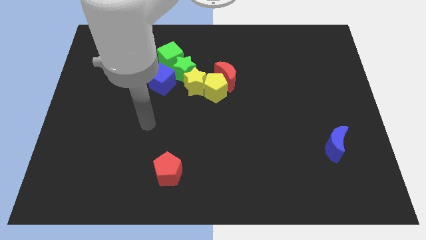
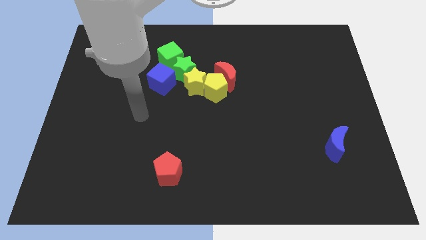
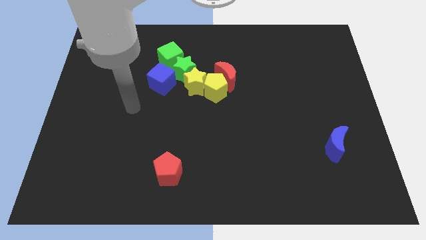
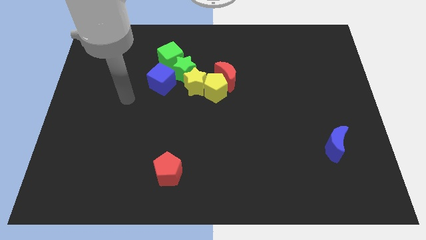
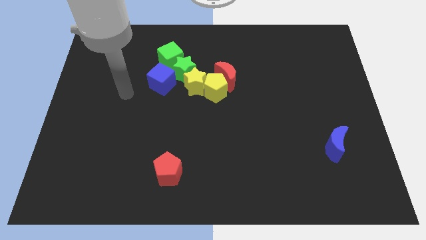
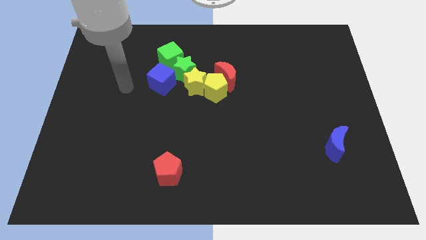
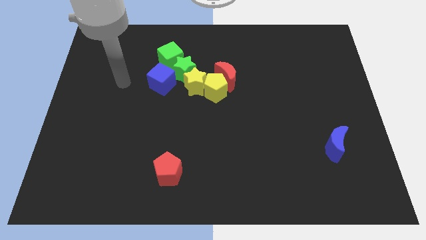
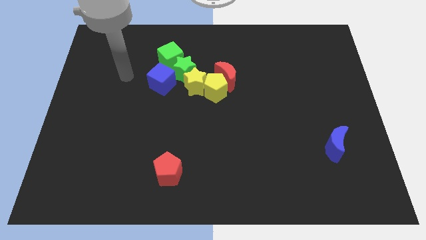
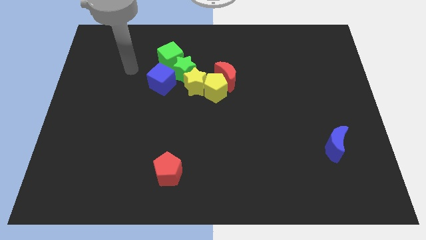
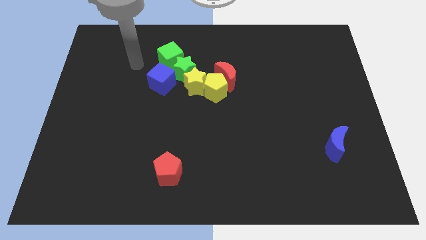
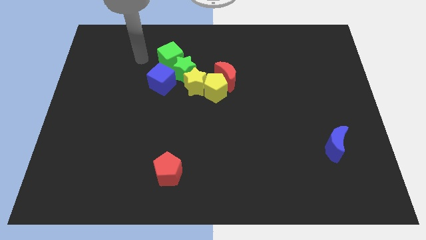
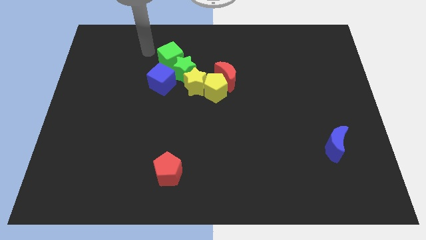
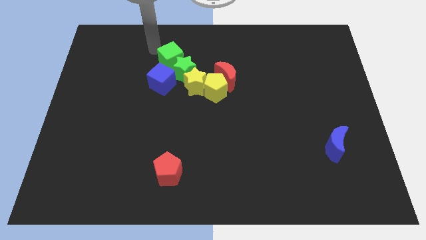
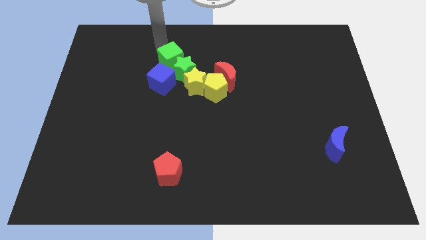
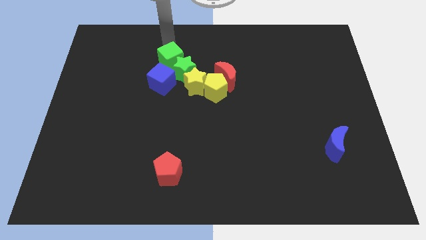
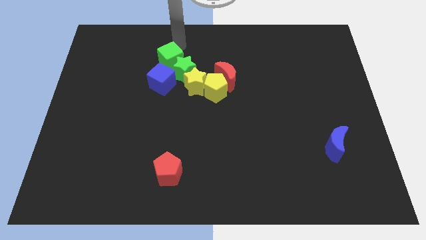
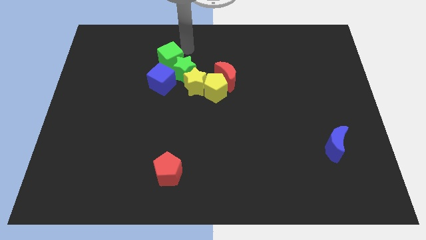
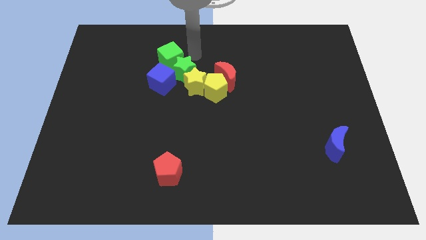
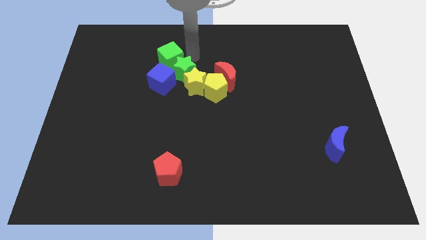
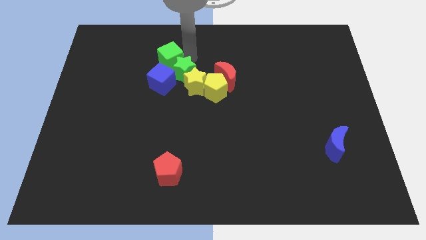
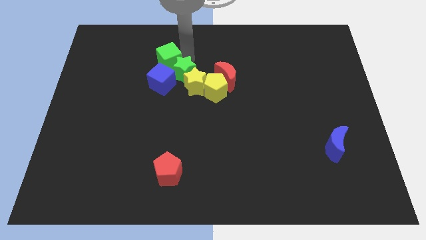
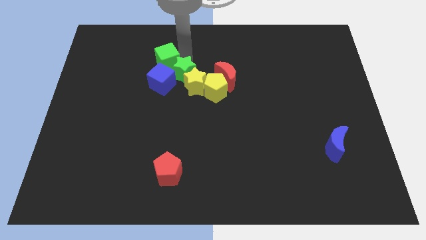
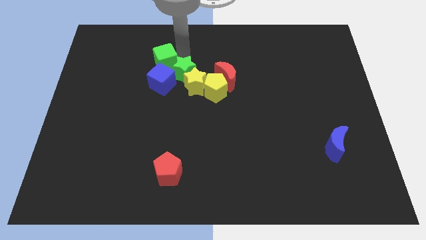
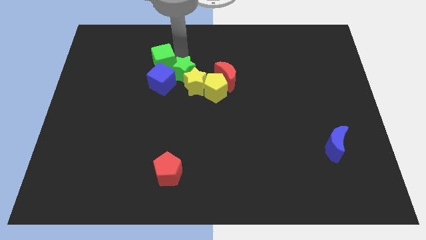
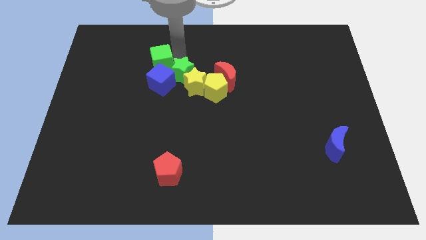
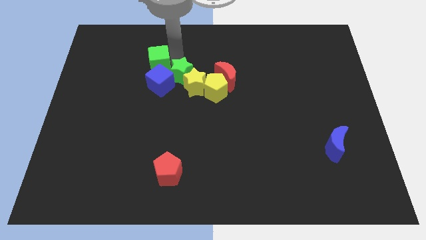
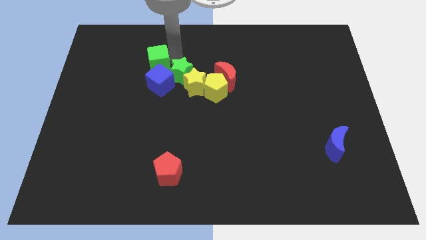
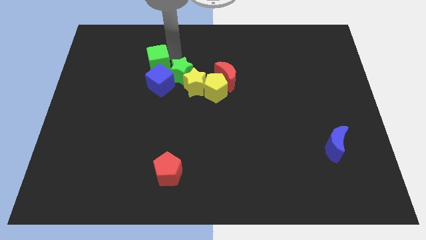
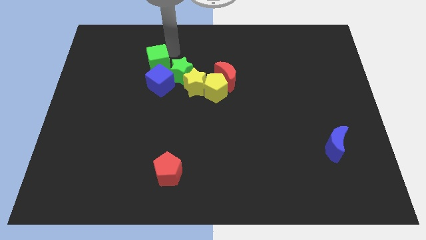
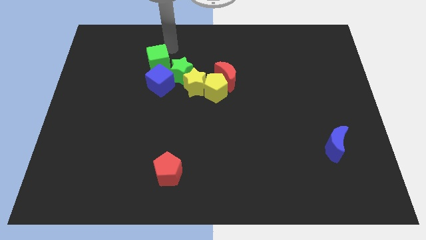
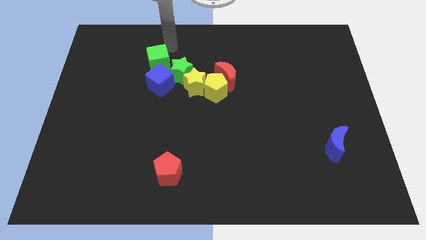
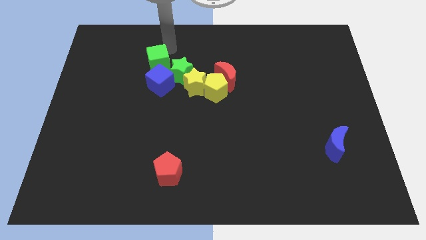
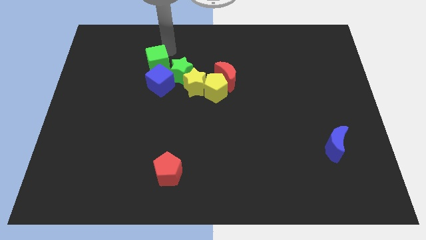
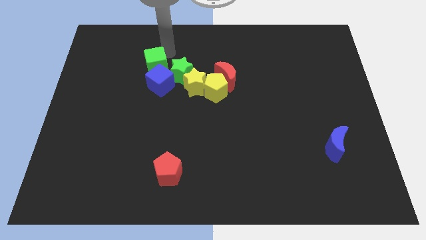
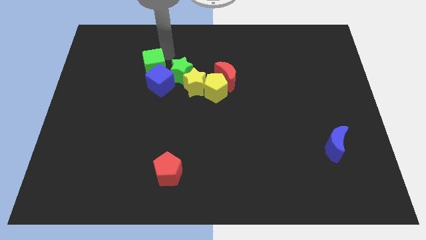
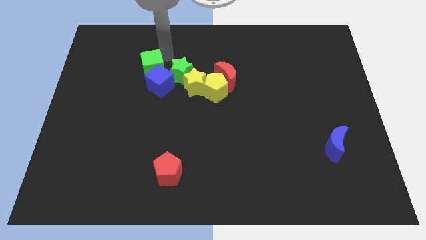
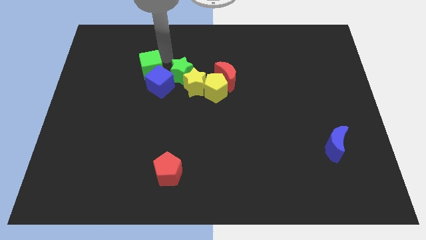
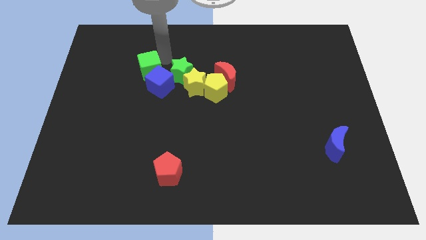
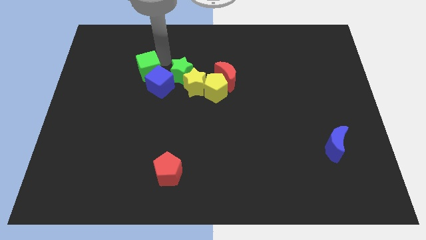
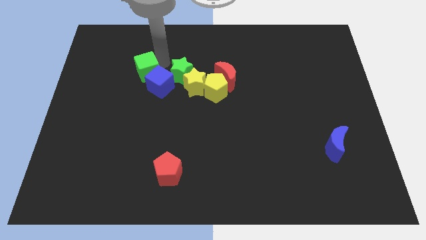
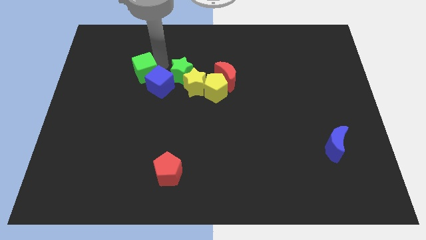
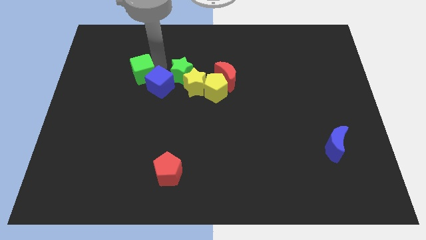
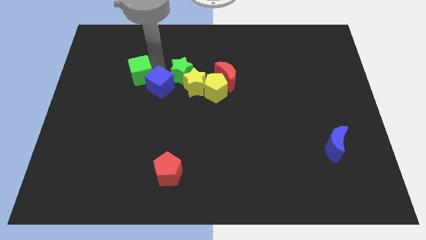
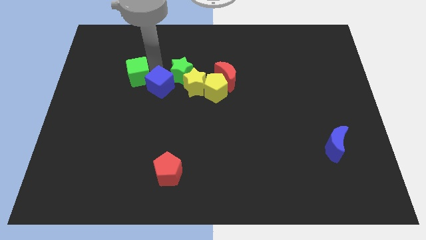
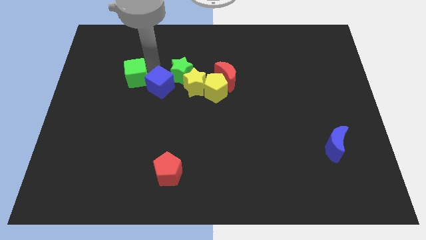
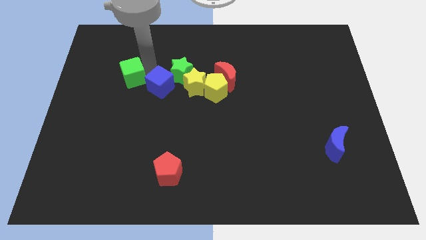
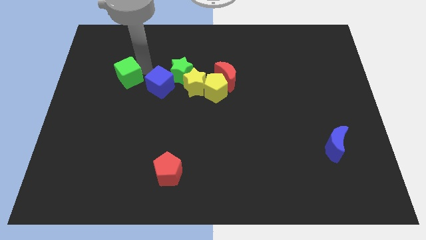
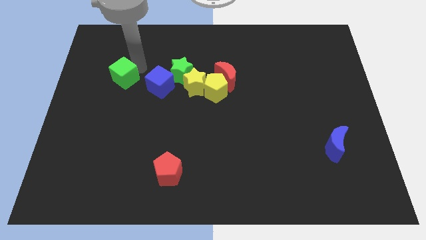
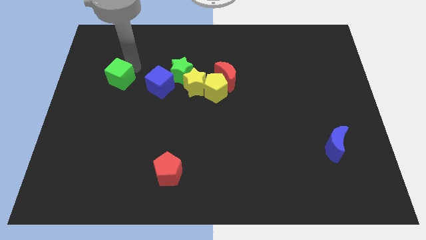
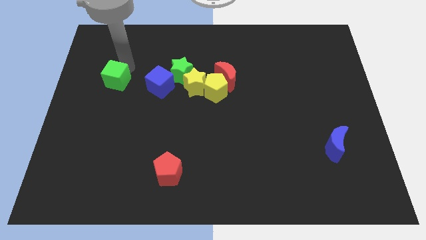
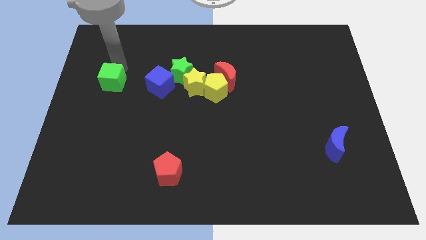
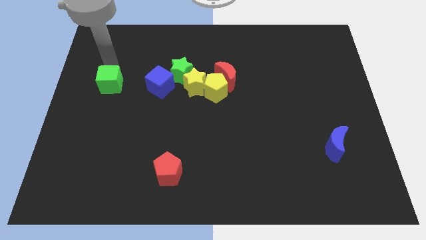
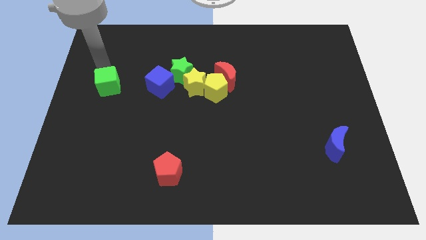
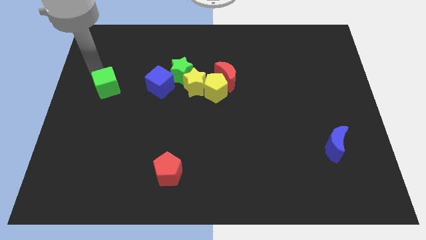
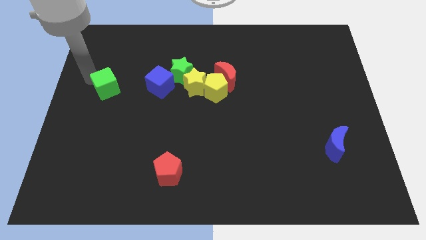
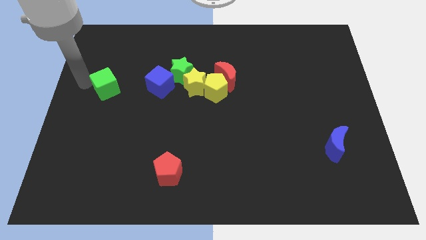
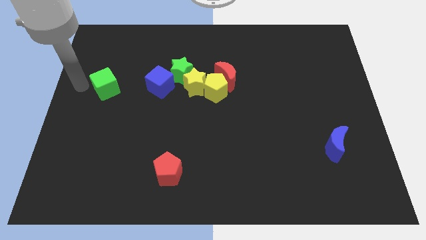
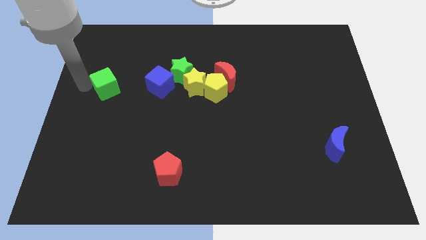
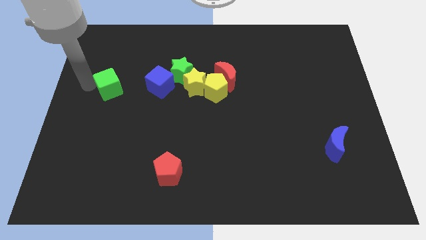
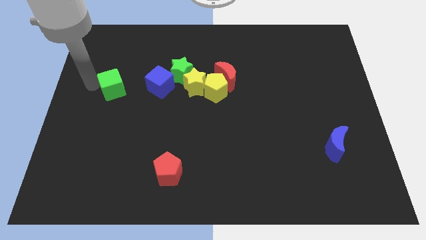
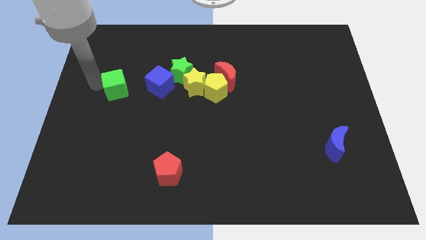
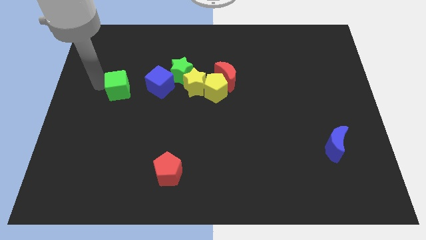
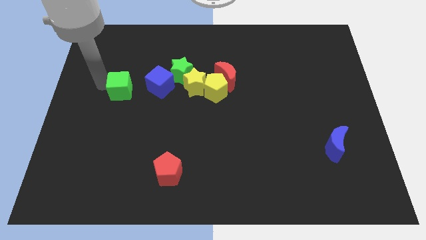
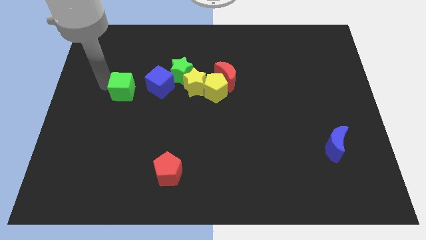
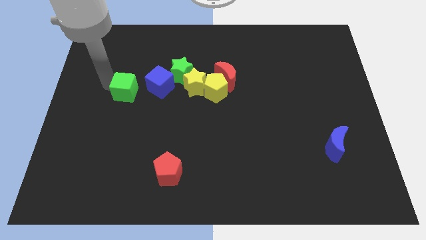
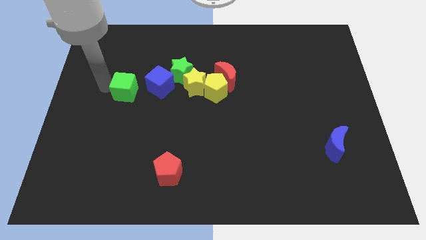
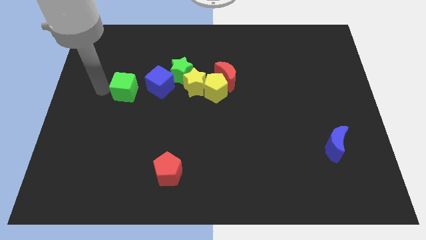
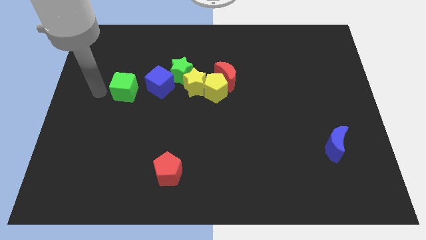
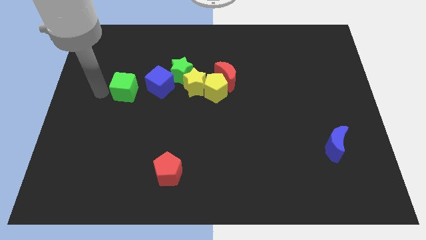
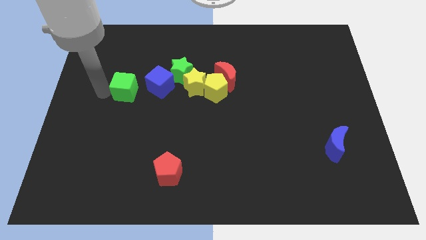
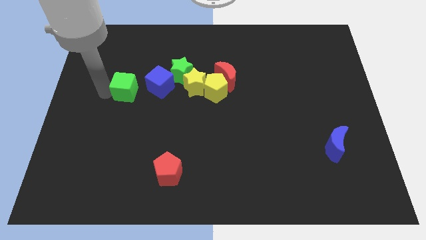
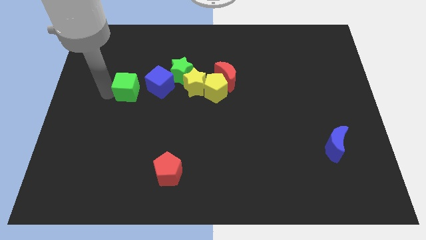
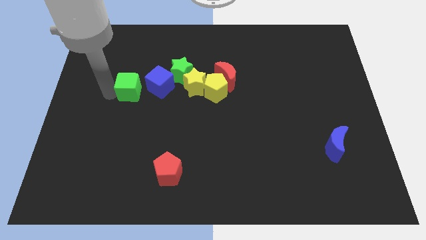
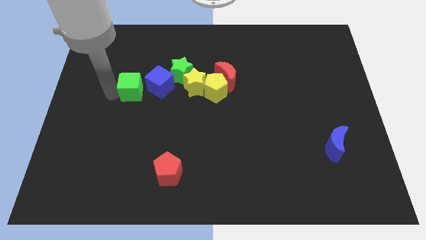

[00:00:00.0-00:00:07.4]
slide the green cube downwards a little bit

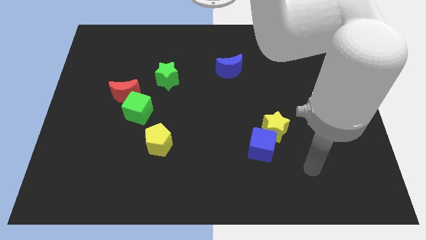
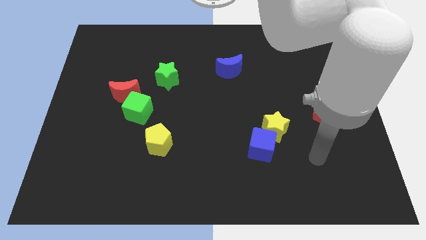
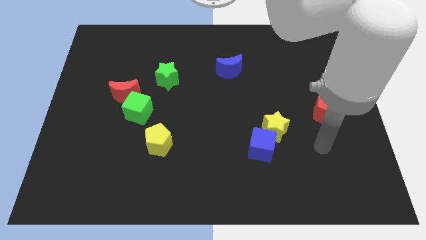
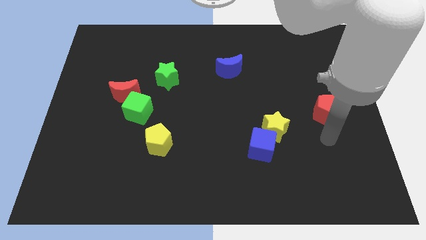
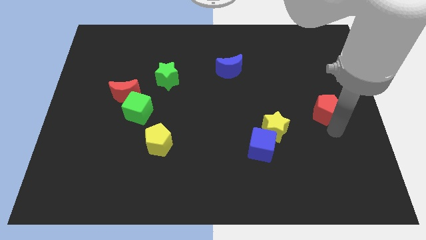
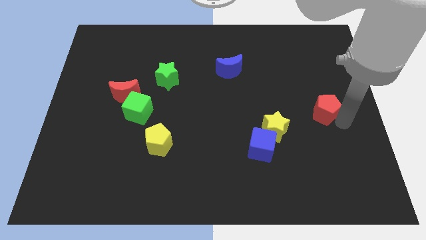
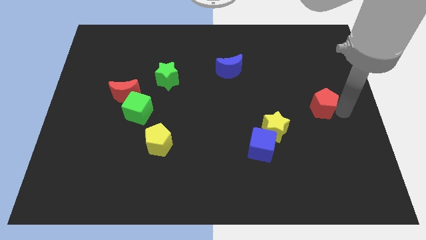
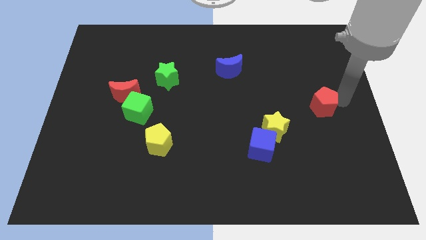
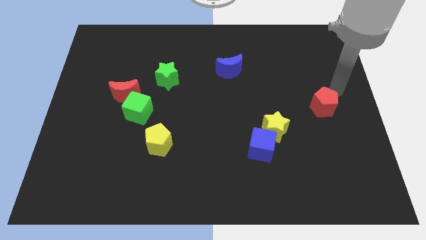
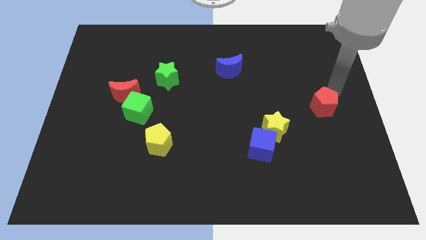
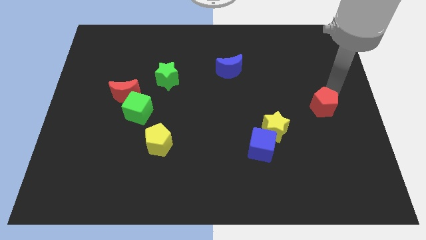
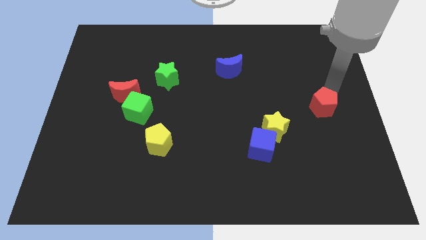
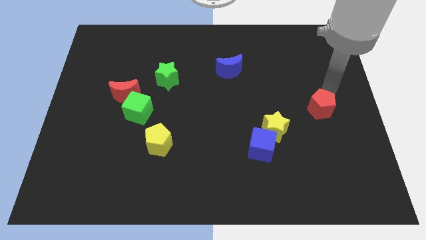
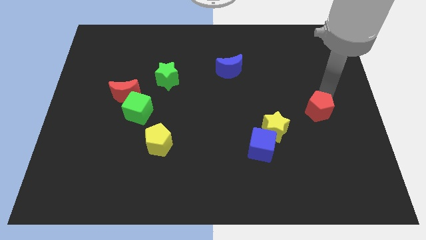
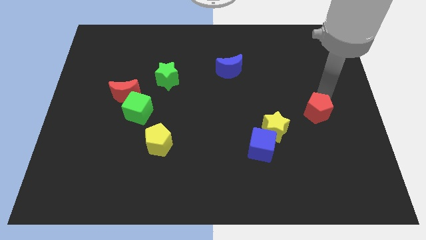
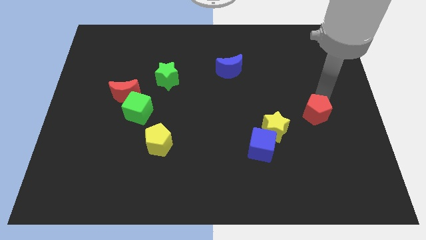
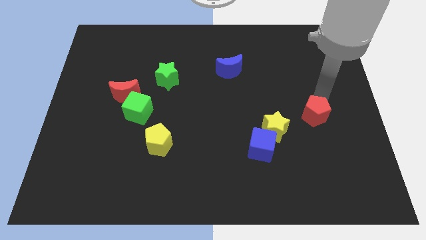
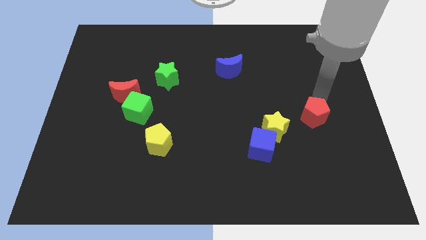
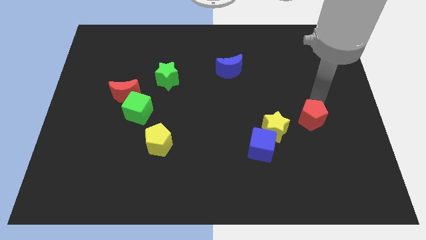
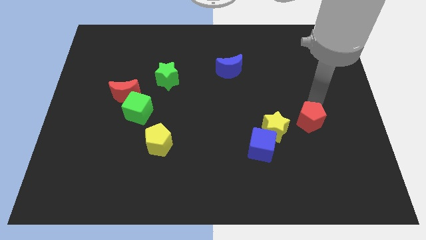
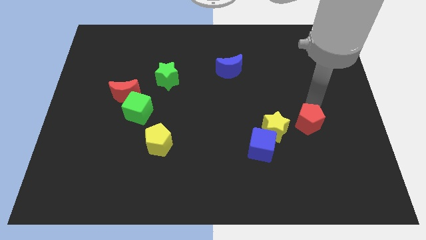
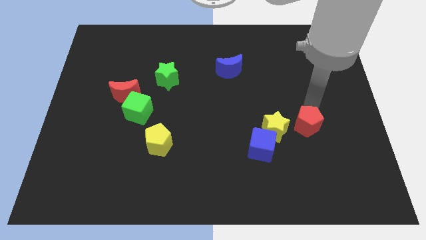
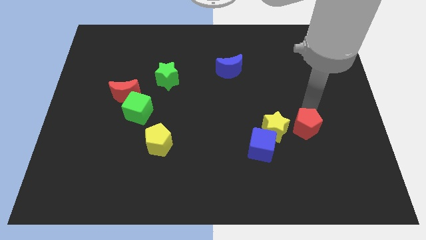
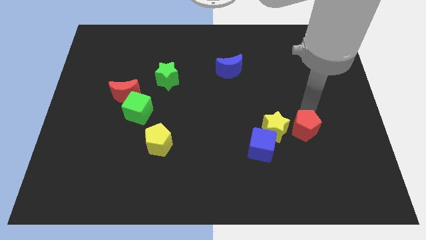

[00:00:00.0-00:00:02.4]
slightly move the red pentagon diagonally down and left
